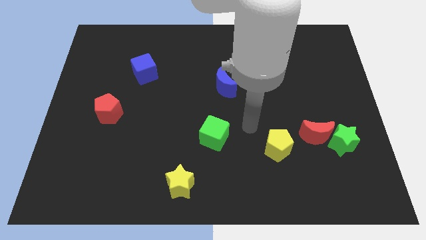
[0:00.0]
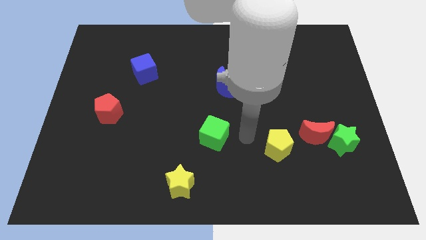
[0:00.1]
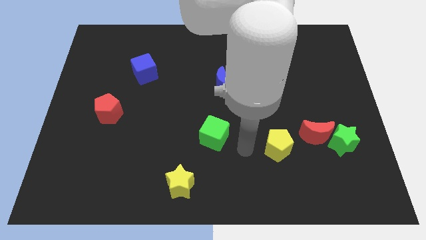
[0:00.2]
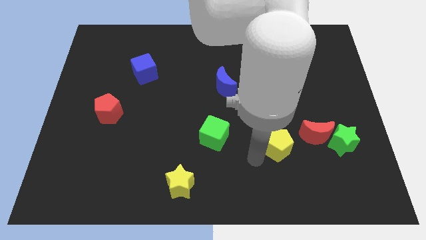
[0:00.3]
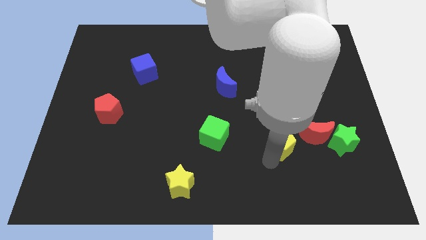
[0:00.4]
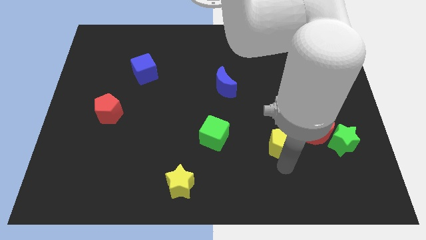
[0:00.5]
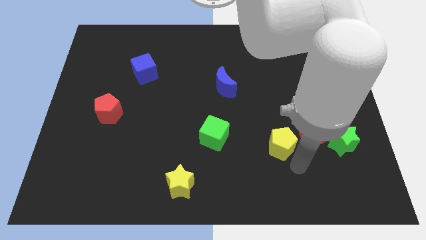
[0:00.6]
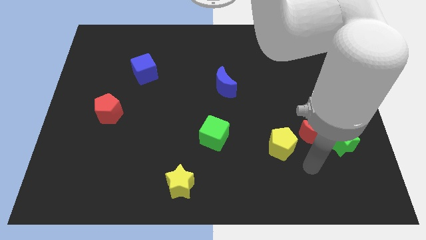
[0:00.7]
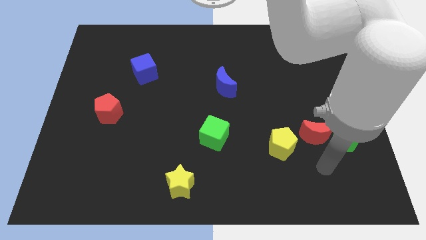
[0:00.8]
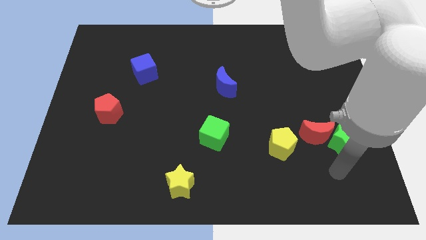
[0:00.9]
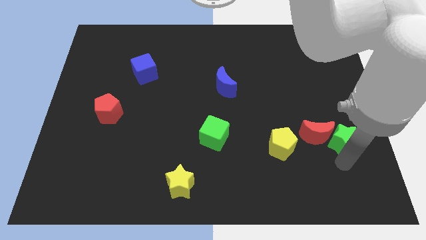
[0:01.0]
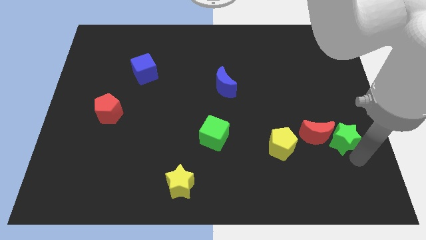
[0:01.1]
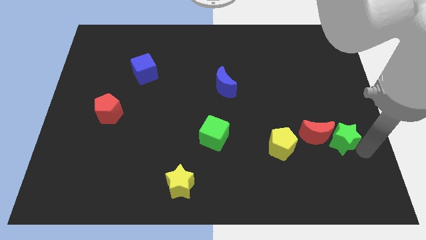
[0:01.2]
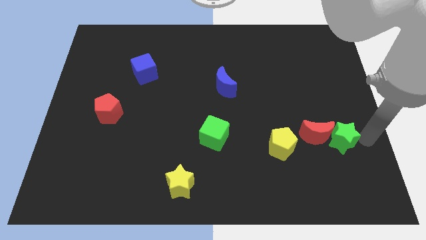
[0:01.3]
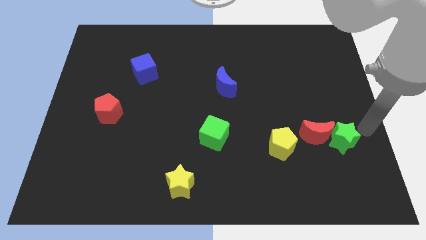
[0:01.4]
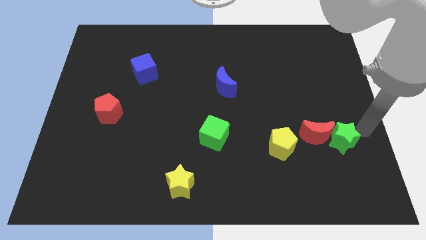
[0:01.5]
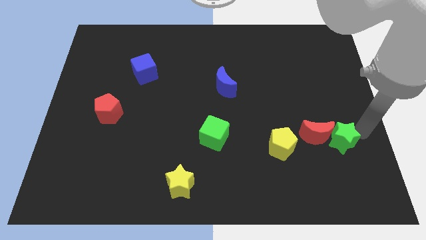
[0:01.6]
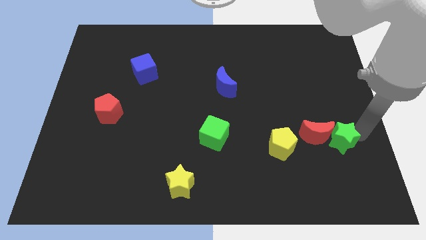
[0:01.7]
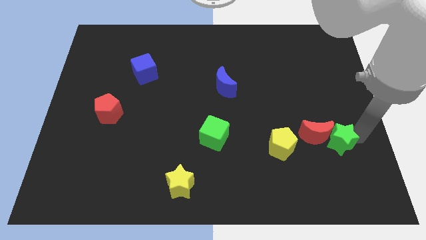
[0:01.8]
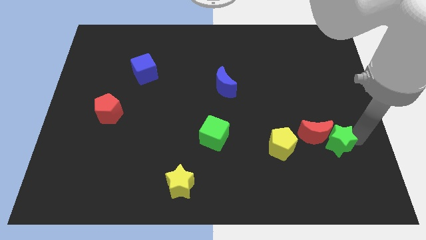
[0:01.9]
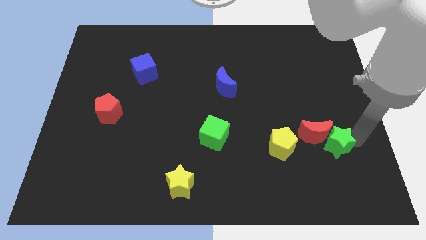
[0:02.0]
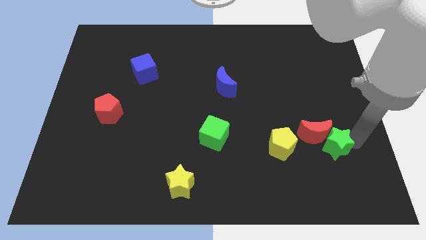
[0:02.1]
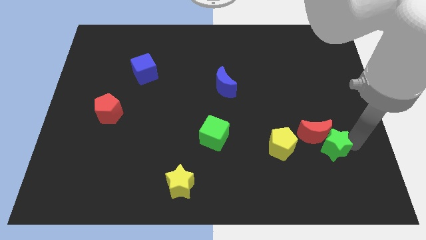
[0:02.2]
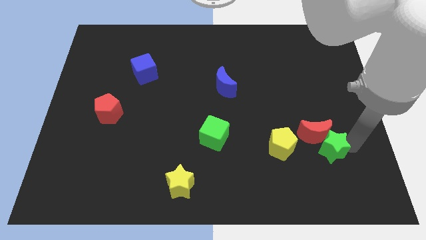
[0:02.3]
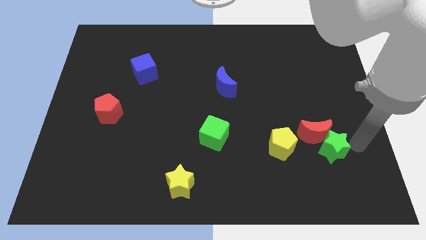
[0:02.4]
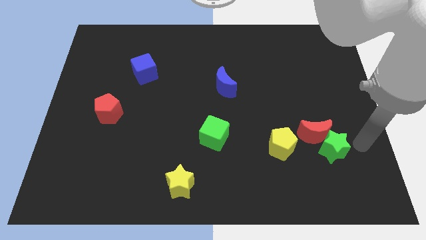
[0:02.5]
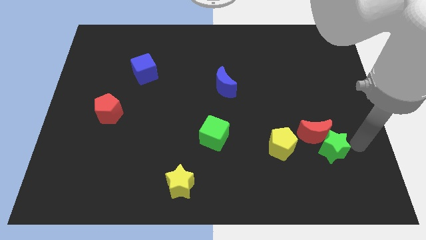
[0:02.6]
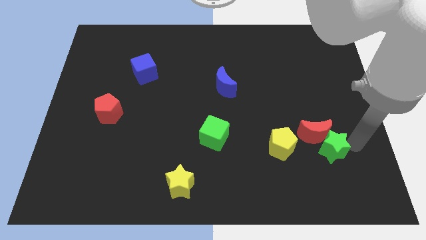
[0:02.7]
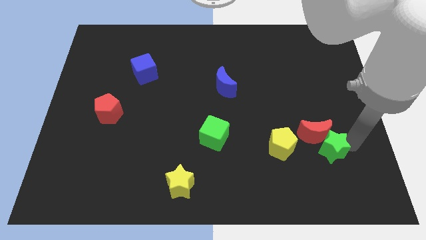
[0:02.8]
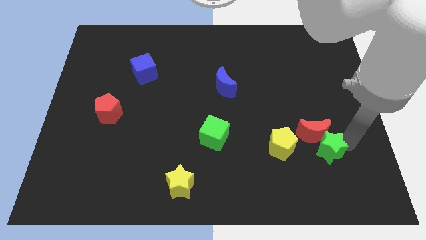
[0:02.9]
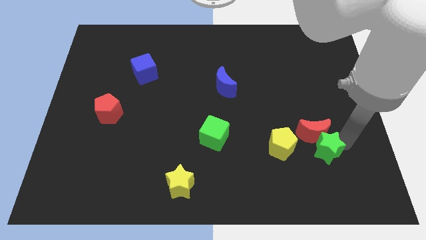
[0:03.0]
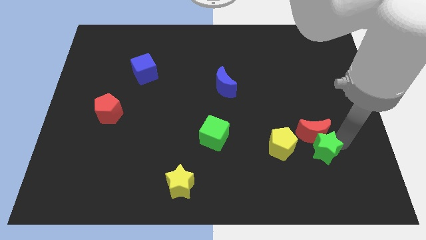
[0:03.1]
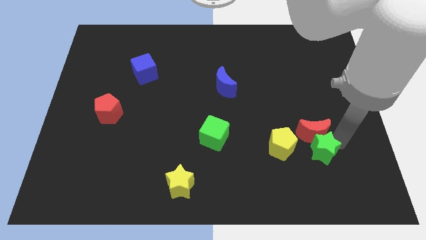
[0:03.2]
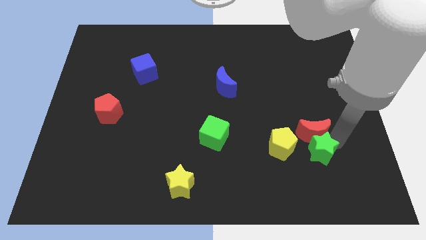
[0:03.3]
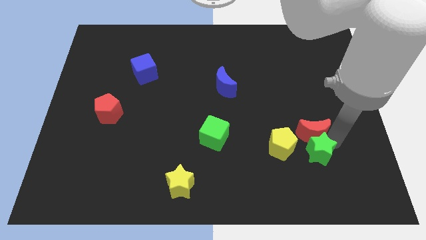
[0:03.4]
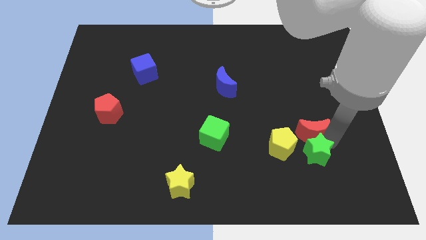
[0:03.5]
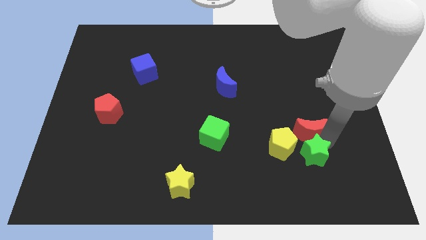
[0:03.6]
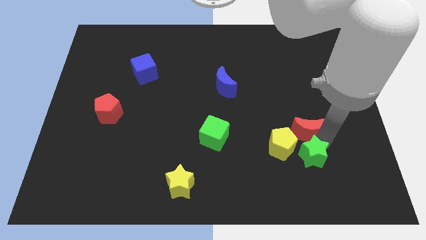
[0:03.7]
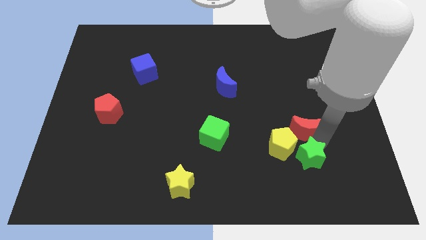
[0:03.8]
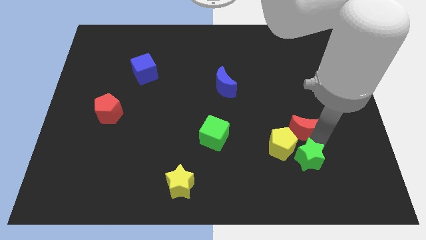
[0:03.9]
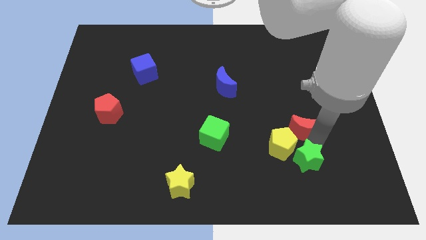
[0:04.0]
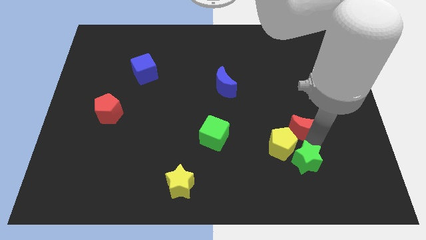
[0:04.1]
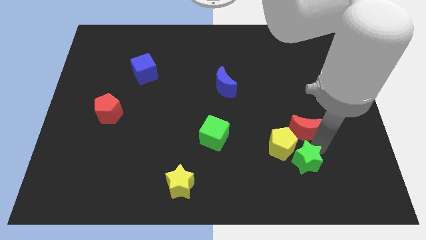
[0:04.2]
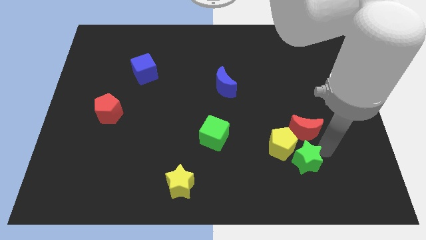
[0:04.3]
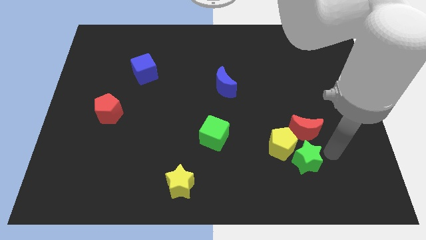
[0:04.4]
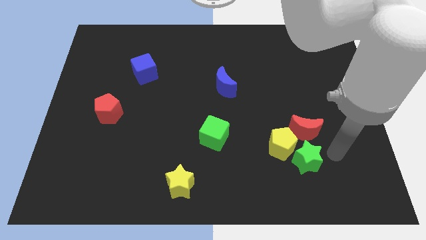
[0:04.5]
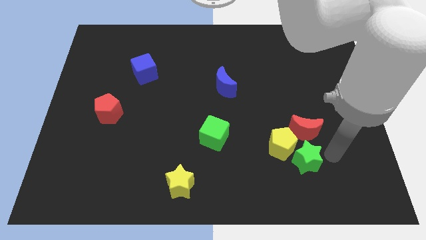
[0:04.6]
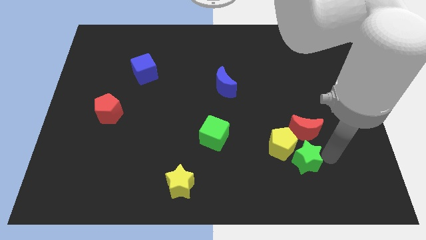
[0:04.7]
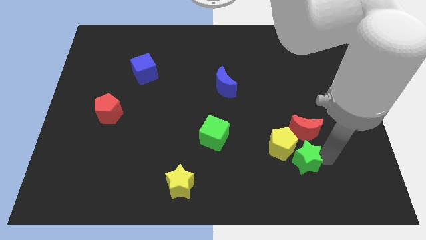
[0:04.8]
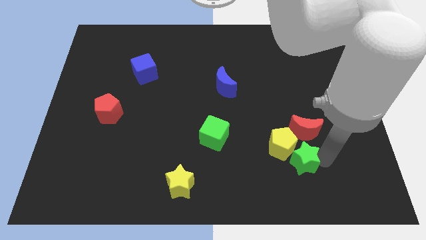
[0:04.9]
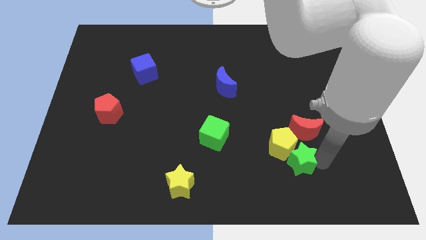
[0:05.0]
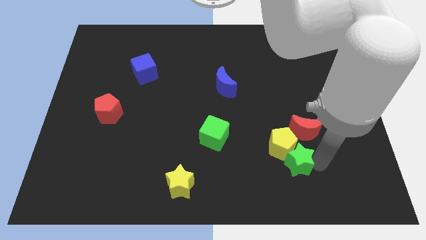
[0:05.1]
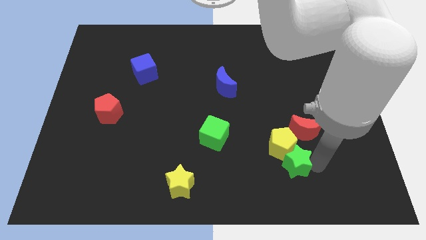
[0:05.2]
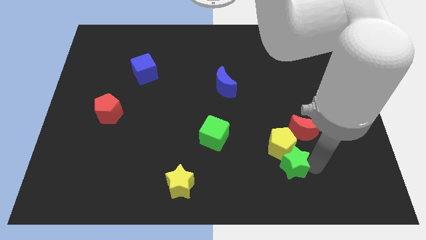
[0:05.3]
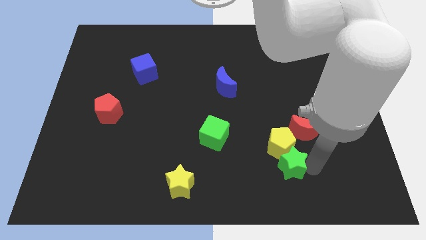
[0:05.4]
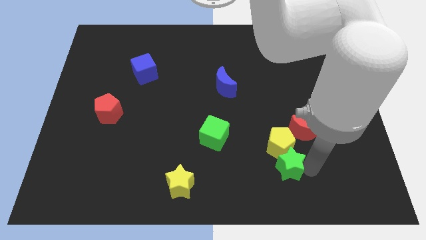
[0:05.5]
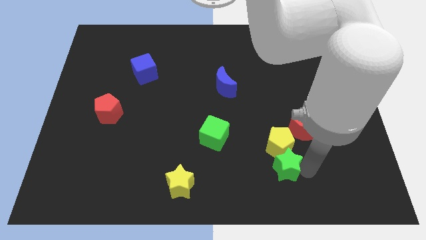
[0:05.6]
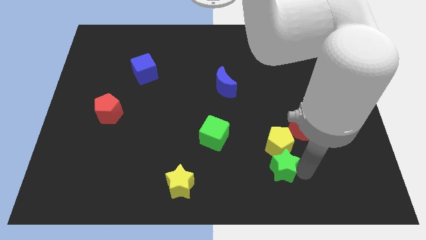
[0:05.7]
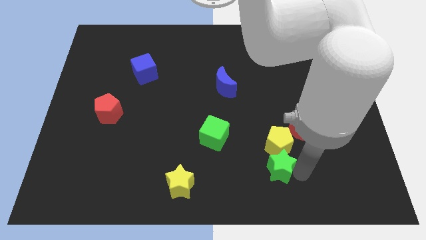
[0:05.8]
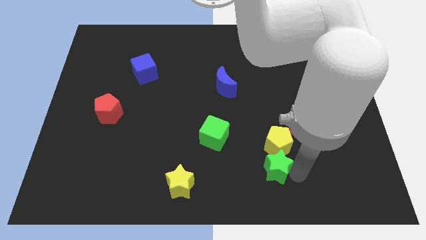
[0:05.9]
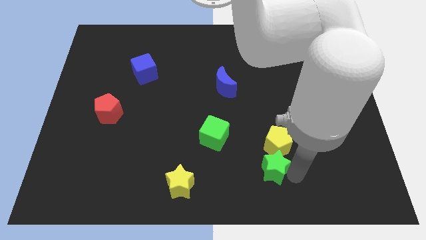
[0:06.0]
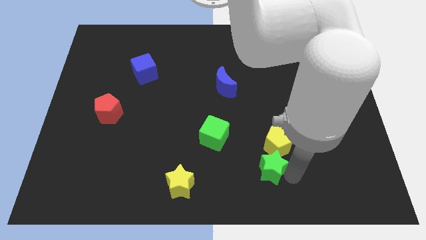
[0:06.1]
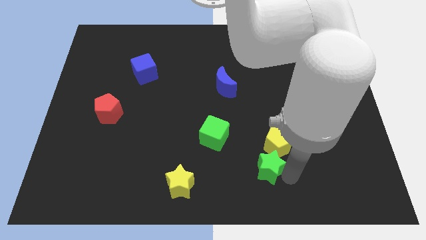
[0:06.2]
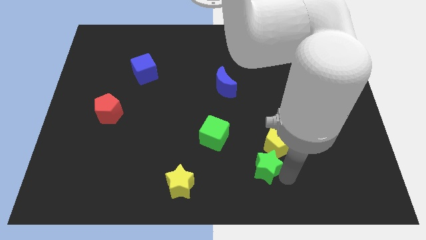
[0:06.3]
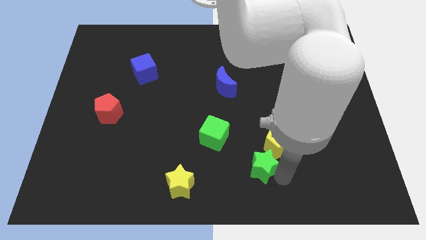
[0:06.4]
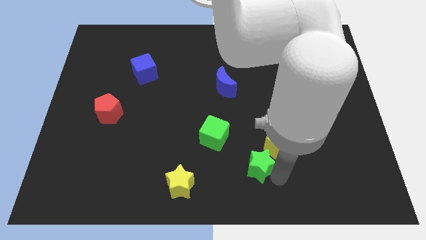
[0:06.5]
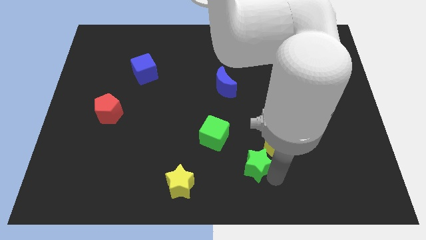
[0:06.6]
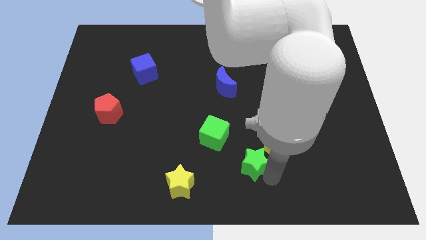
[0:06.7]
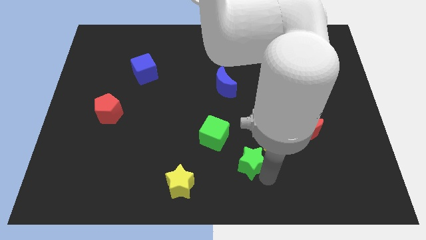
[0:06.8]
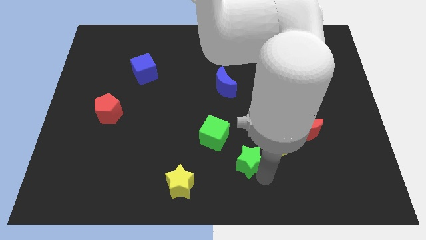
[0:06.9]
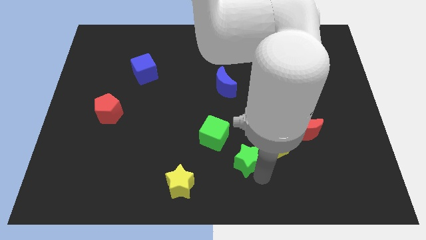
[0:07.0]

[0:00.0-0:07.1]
slide the green star left

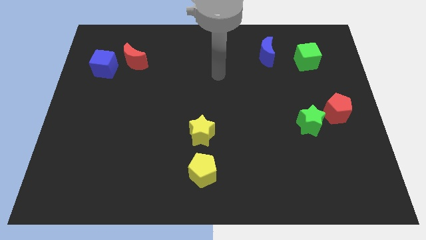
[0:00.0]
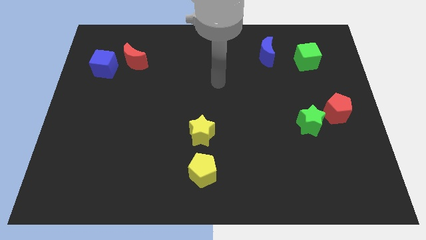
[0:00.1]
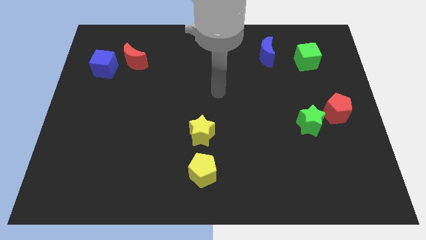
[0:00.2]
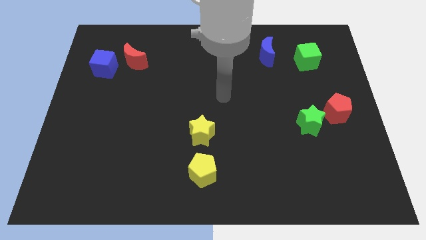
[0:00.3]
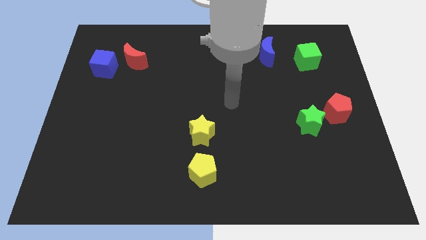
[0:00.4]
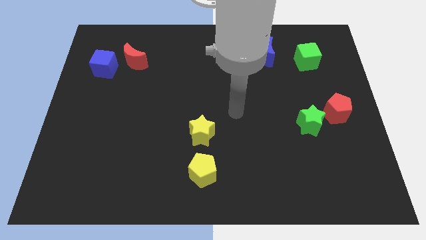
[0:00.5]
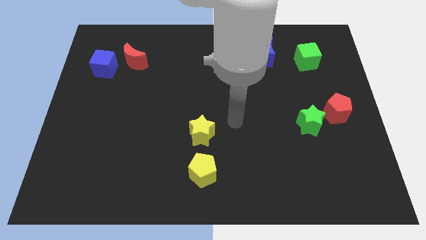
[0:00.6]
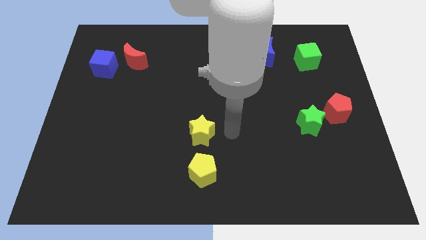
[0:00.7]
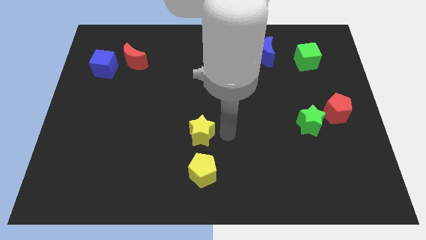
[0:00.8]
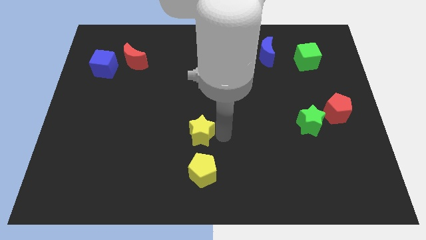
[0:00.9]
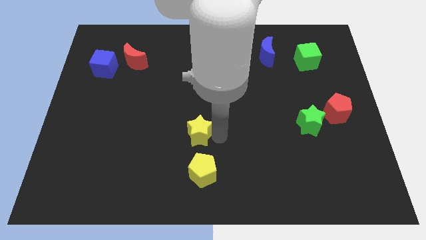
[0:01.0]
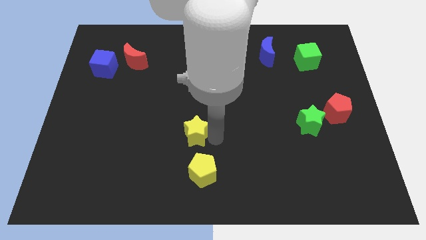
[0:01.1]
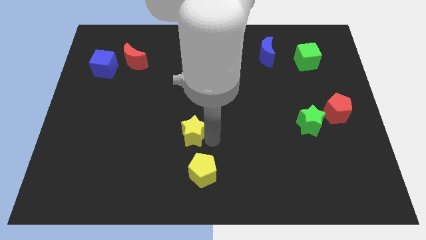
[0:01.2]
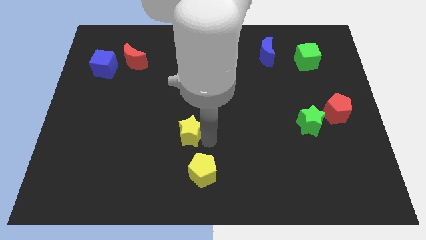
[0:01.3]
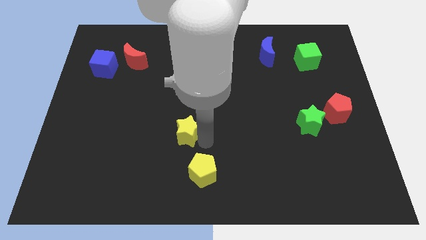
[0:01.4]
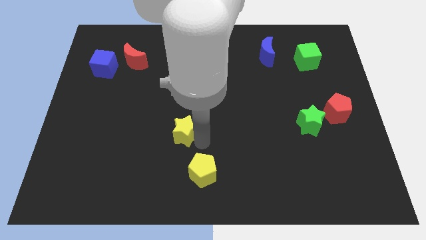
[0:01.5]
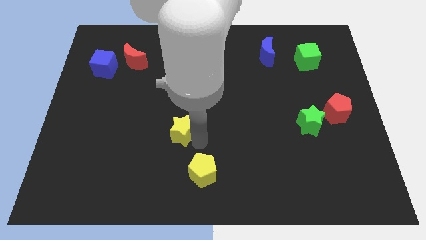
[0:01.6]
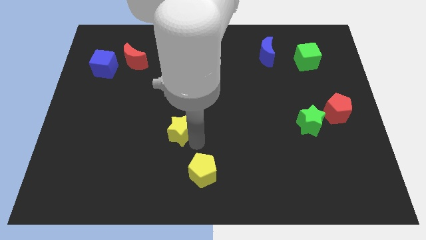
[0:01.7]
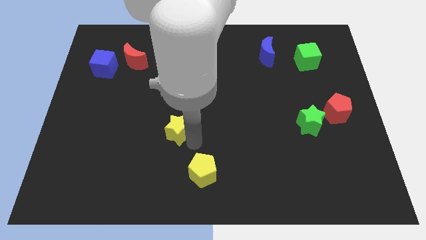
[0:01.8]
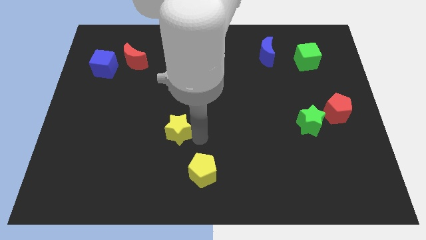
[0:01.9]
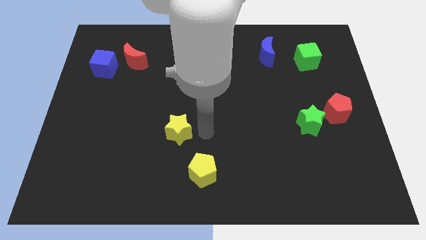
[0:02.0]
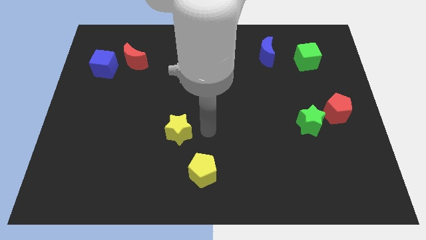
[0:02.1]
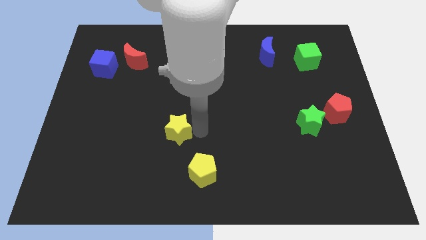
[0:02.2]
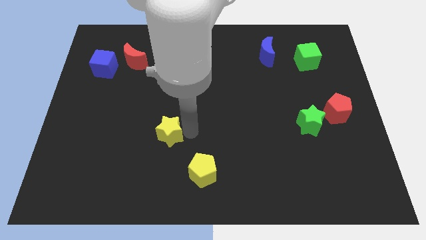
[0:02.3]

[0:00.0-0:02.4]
push the yellow star somewhat to the left
